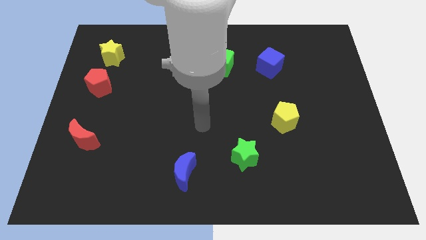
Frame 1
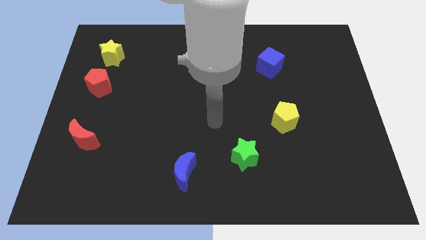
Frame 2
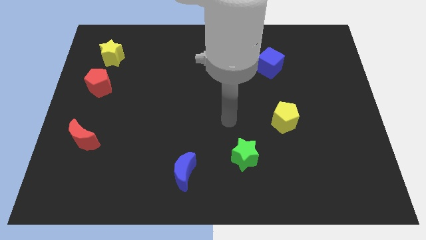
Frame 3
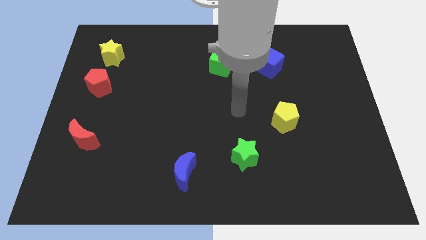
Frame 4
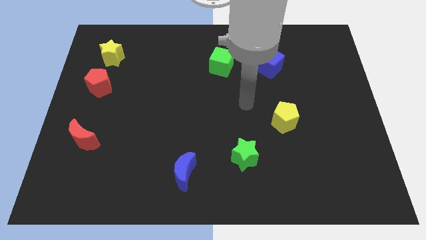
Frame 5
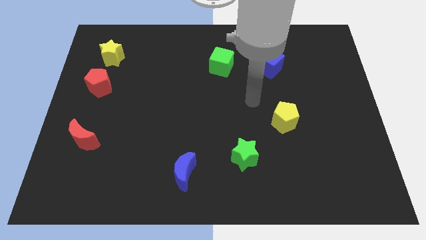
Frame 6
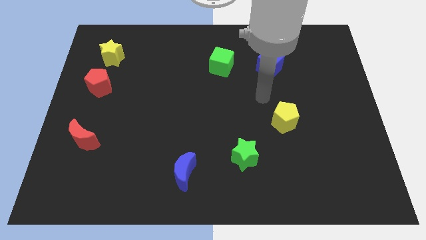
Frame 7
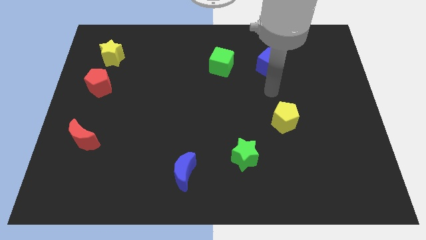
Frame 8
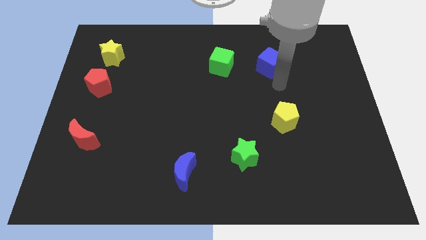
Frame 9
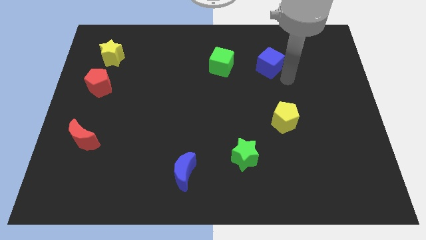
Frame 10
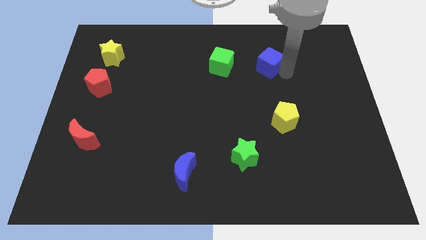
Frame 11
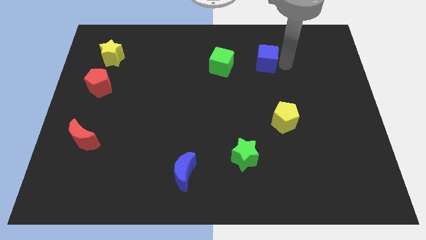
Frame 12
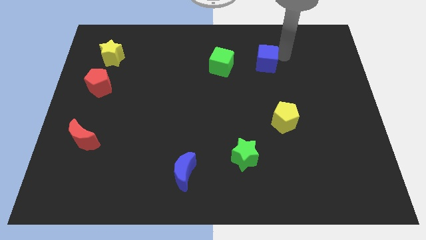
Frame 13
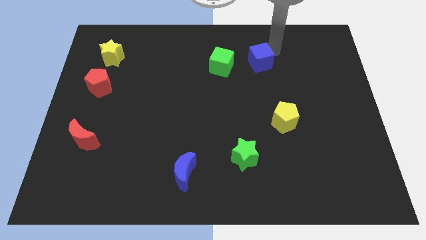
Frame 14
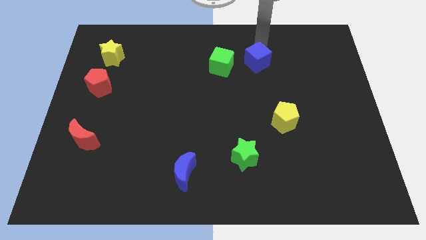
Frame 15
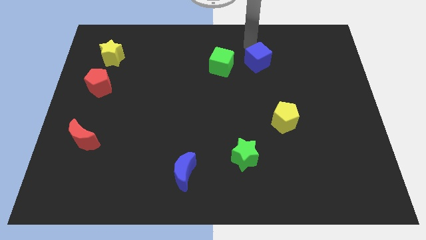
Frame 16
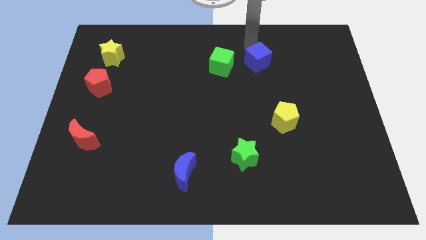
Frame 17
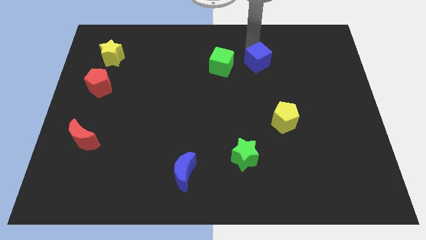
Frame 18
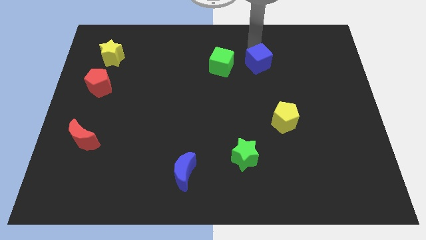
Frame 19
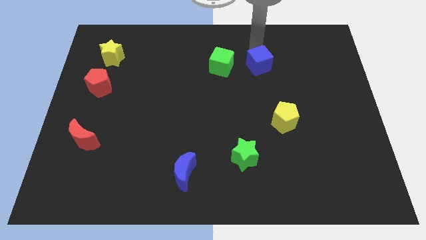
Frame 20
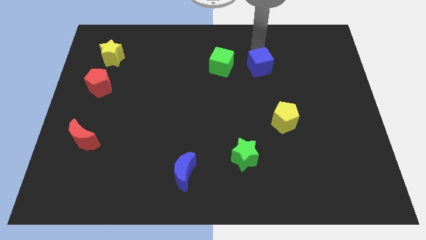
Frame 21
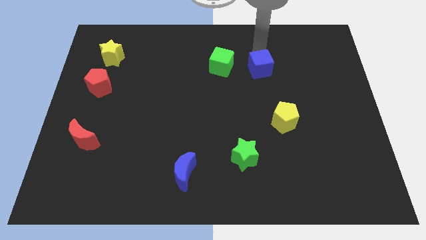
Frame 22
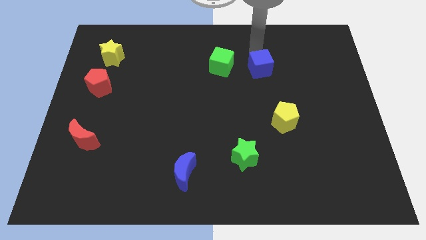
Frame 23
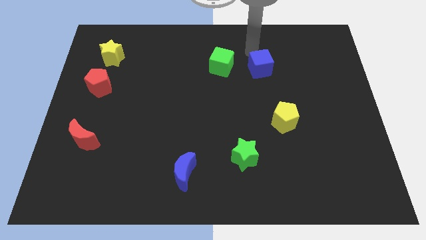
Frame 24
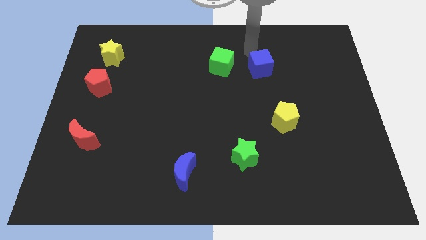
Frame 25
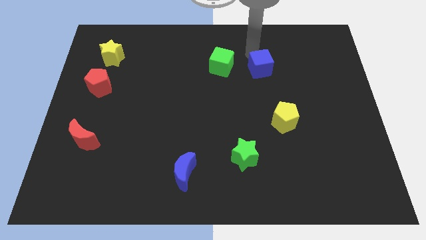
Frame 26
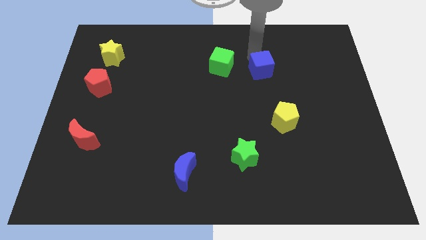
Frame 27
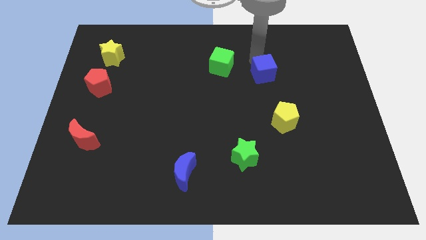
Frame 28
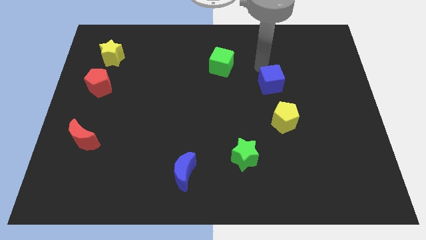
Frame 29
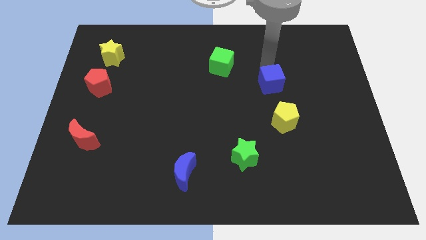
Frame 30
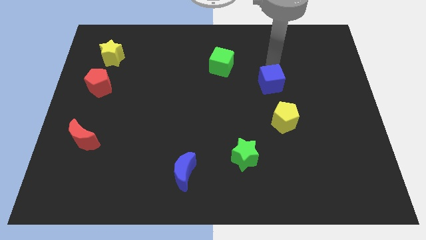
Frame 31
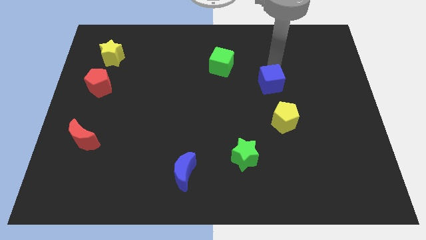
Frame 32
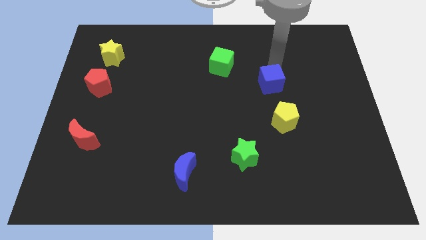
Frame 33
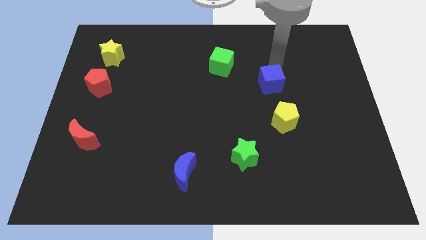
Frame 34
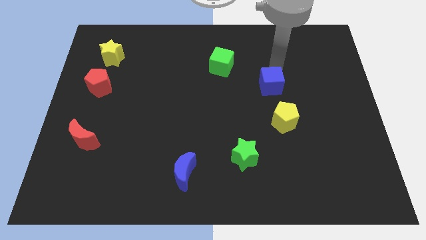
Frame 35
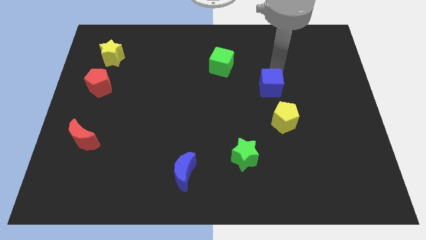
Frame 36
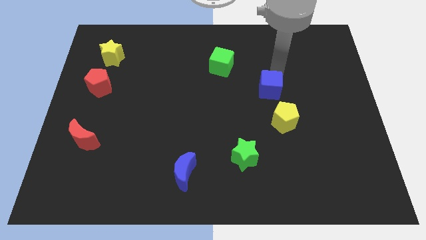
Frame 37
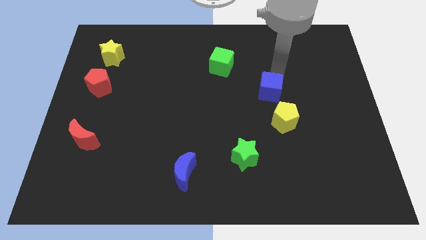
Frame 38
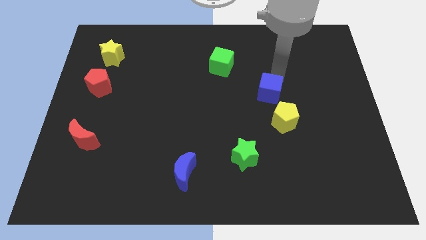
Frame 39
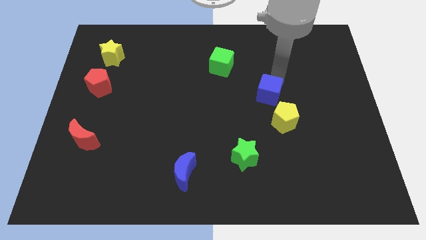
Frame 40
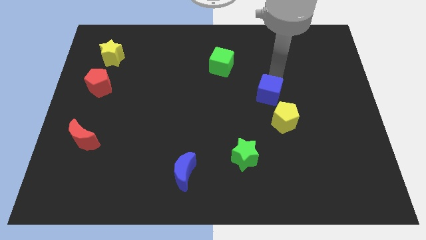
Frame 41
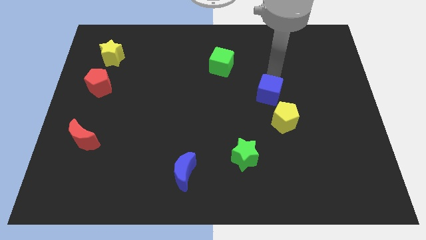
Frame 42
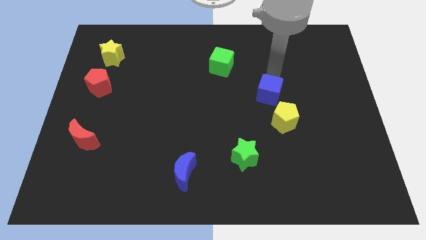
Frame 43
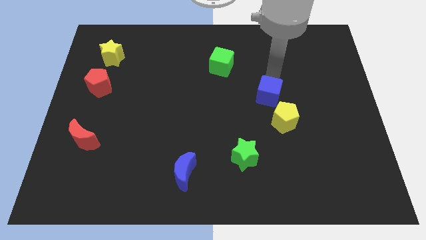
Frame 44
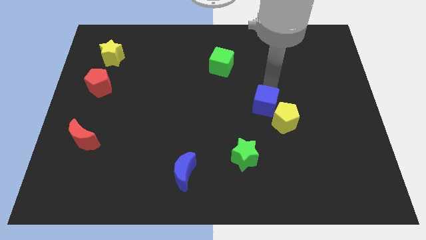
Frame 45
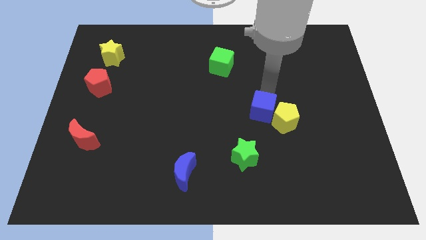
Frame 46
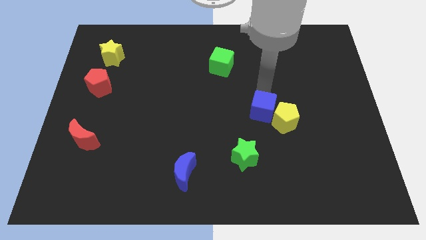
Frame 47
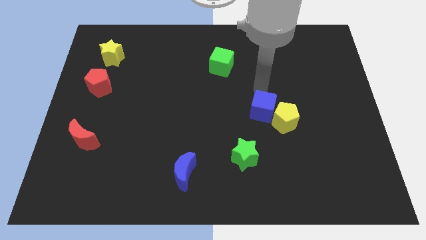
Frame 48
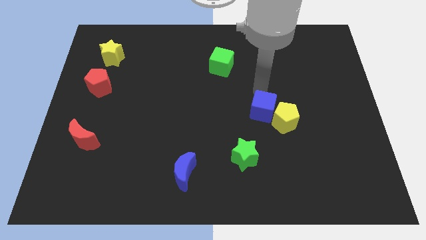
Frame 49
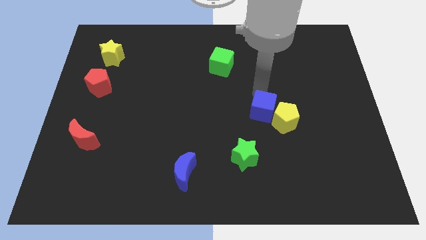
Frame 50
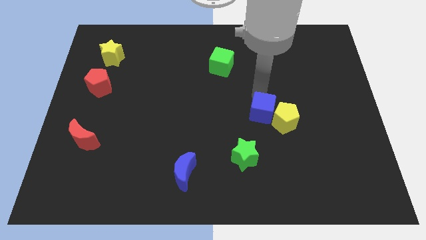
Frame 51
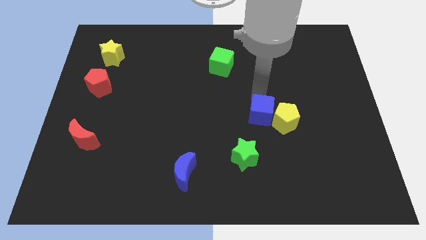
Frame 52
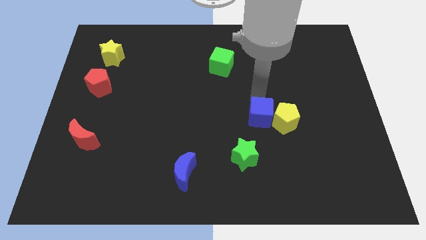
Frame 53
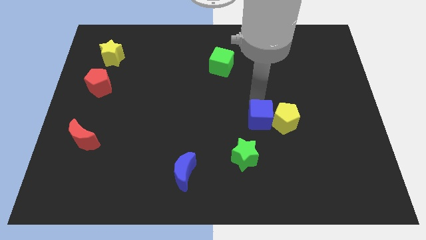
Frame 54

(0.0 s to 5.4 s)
slide the blue cube to the top right side of the green star

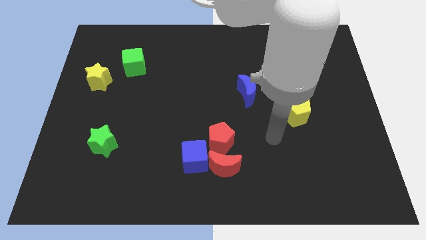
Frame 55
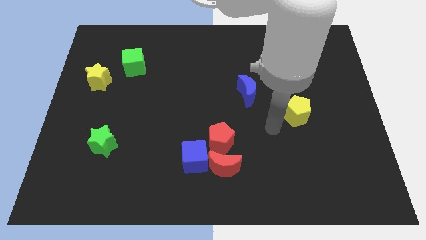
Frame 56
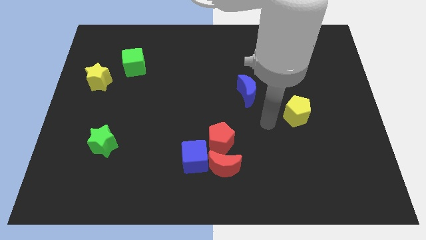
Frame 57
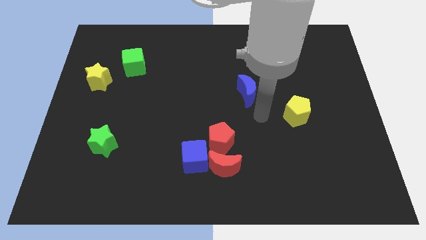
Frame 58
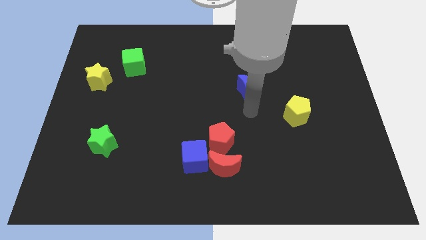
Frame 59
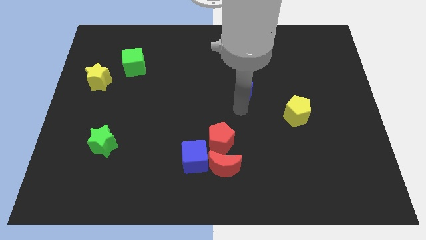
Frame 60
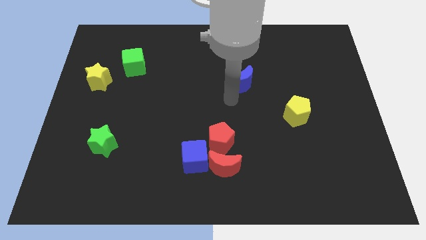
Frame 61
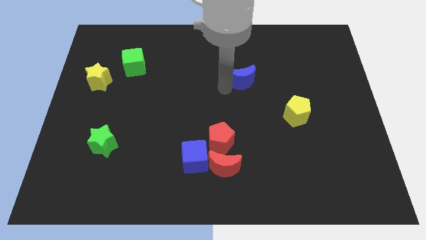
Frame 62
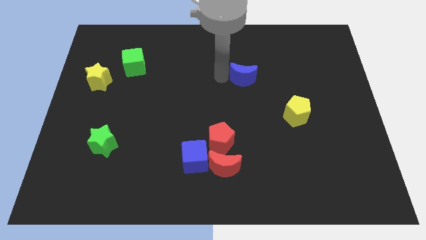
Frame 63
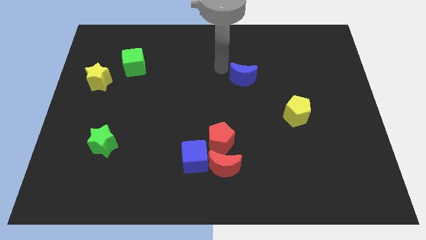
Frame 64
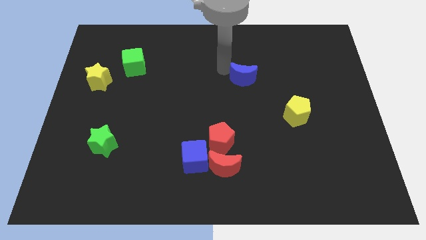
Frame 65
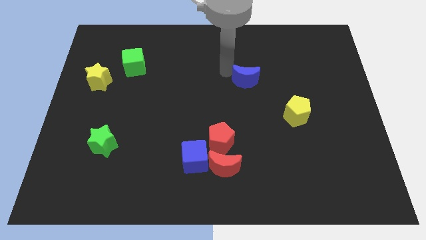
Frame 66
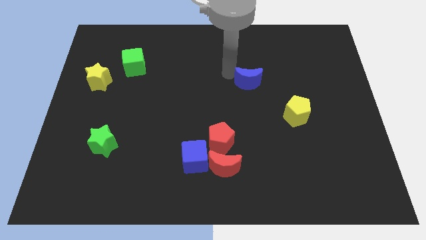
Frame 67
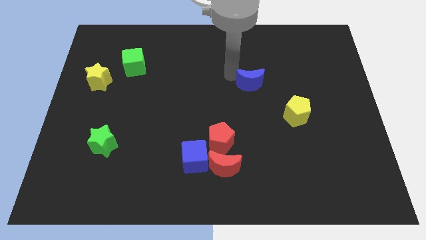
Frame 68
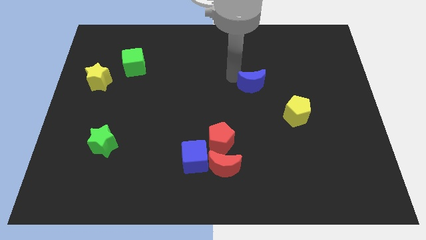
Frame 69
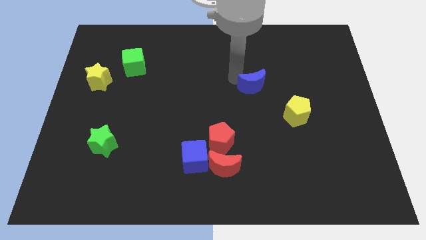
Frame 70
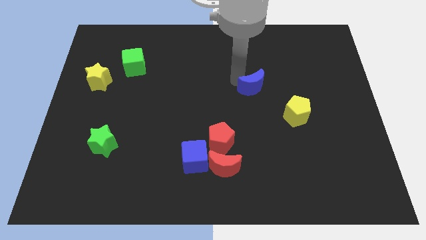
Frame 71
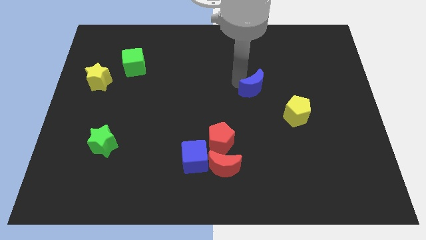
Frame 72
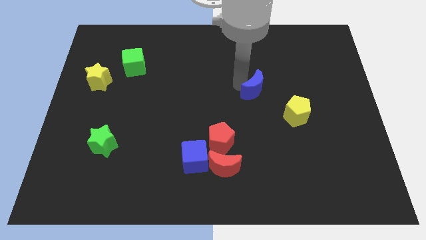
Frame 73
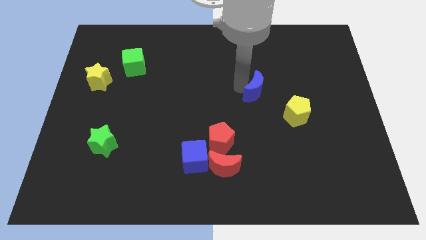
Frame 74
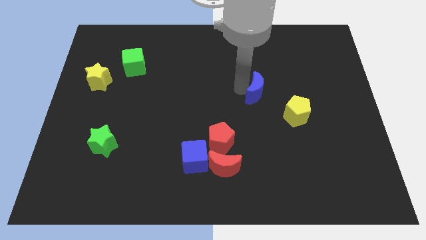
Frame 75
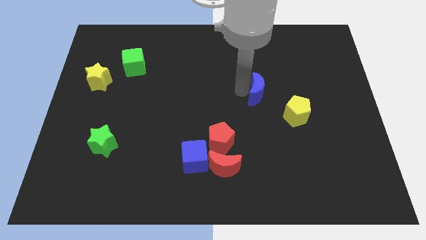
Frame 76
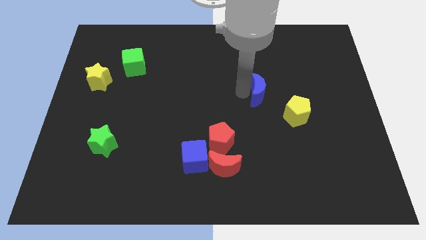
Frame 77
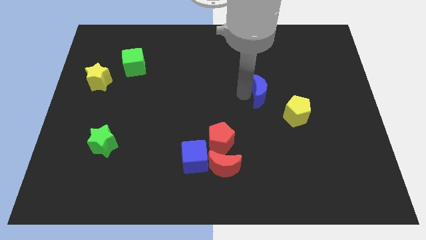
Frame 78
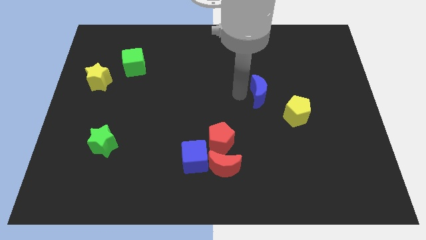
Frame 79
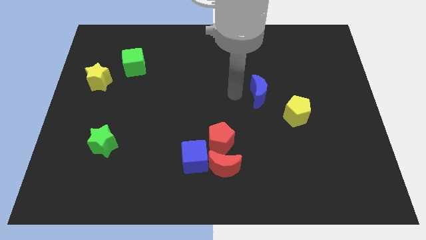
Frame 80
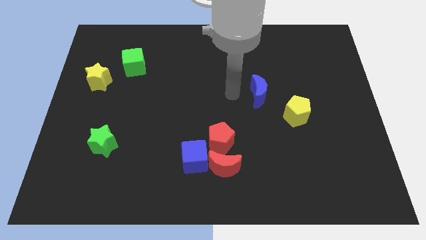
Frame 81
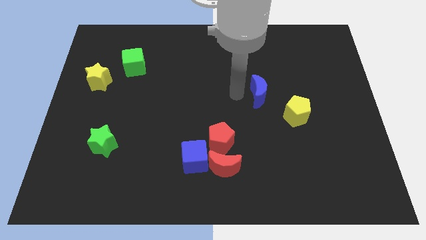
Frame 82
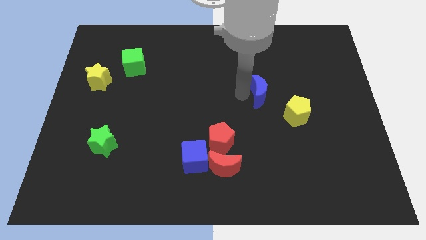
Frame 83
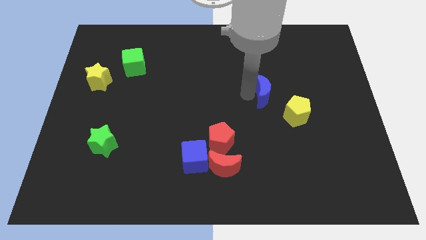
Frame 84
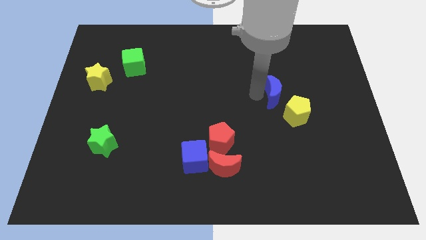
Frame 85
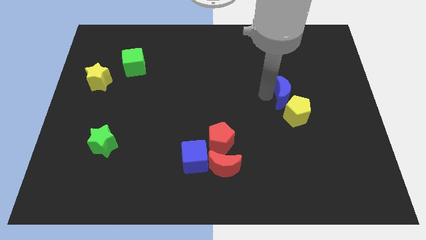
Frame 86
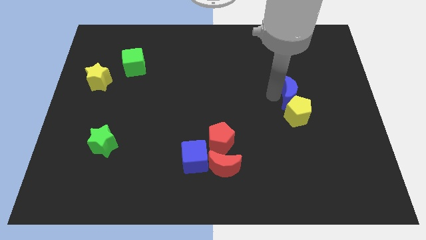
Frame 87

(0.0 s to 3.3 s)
push the blue moon to the top right side of the yellow pentagon
